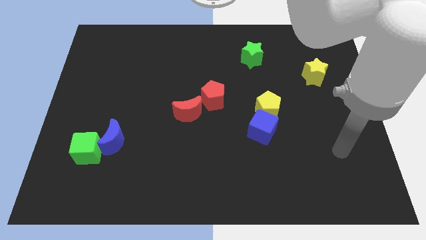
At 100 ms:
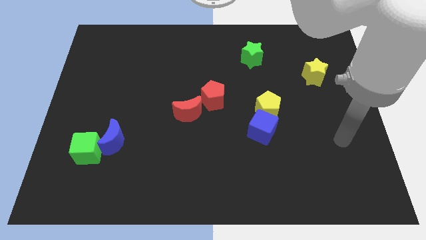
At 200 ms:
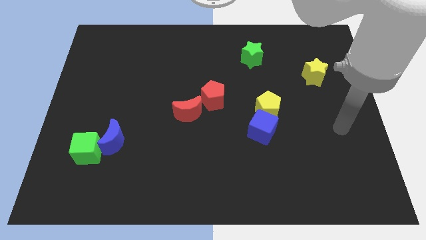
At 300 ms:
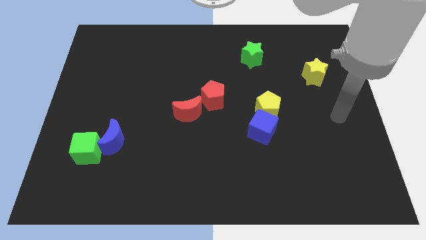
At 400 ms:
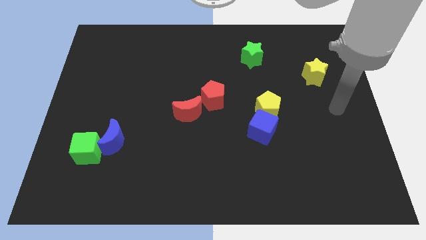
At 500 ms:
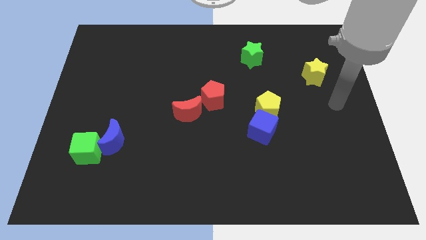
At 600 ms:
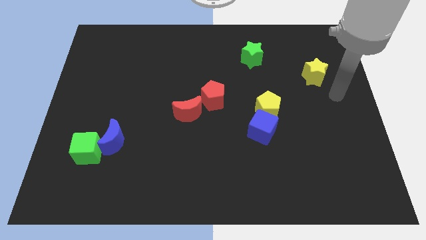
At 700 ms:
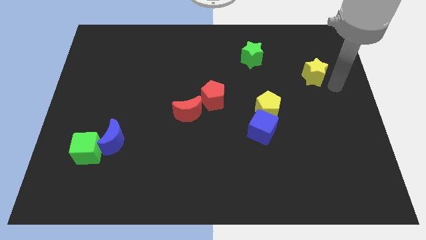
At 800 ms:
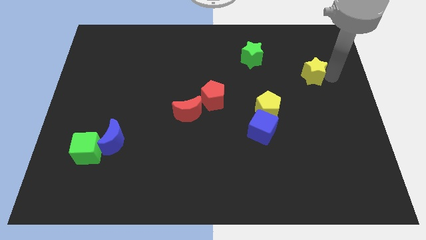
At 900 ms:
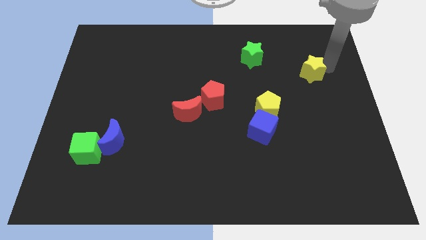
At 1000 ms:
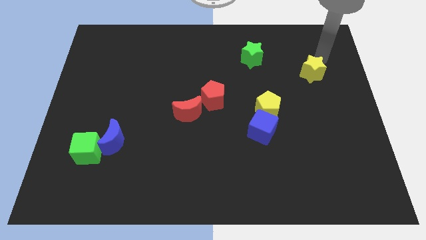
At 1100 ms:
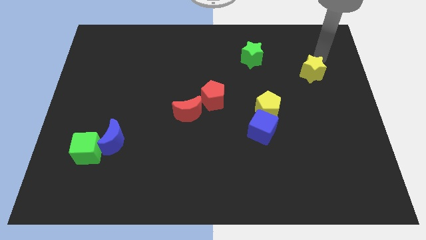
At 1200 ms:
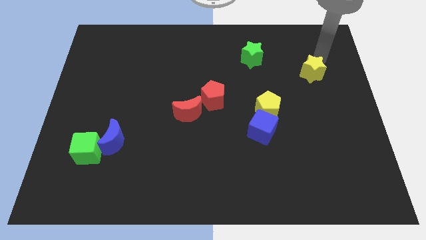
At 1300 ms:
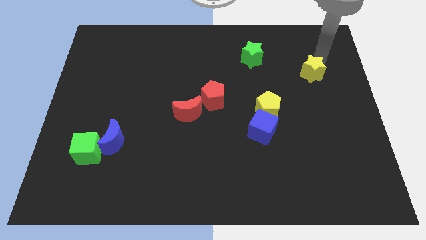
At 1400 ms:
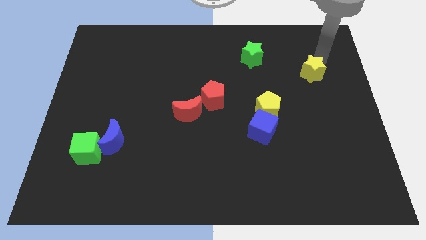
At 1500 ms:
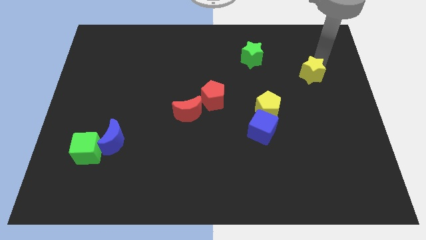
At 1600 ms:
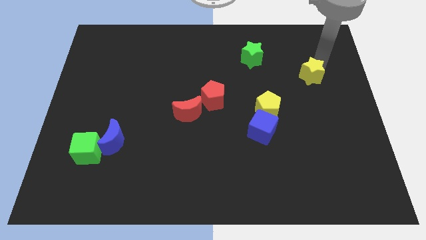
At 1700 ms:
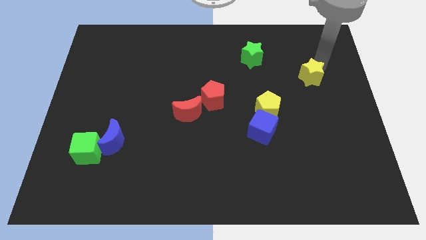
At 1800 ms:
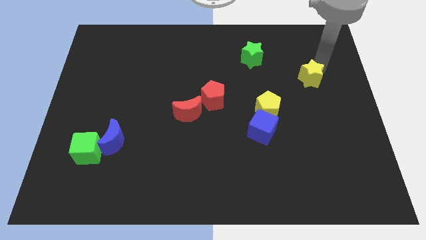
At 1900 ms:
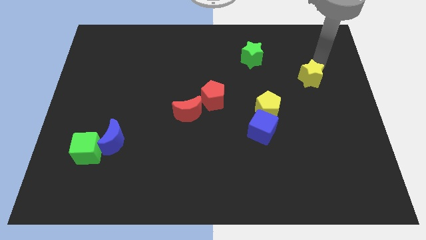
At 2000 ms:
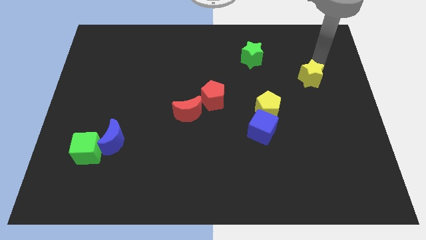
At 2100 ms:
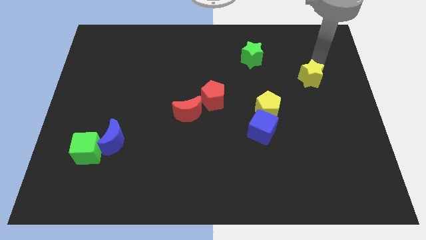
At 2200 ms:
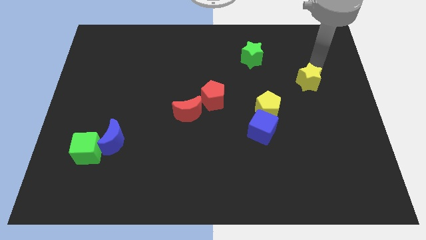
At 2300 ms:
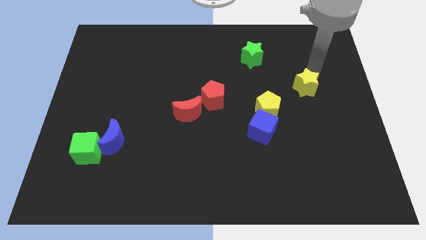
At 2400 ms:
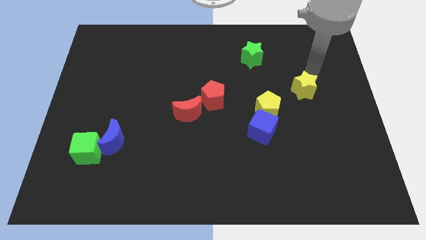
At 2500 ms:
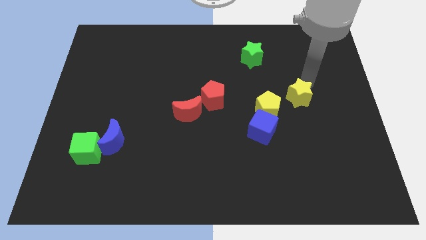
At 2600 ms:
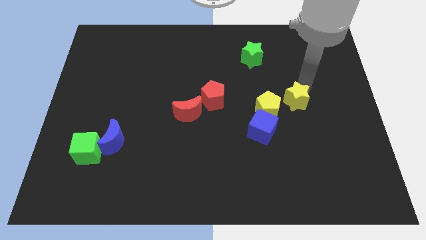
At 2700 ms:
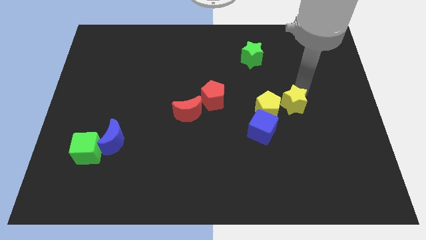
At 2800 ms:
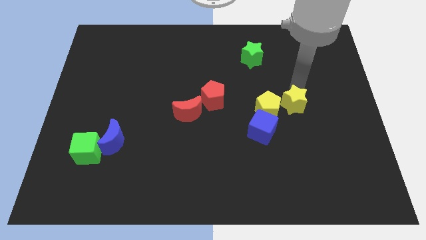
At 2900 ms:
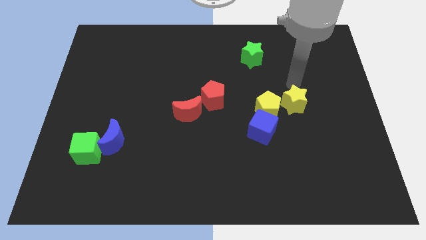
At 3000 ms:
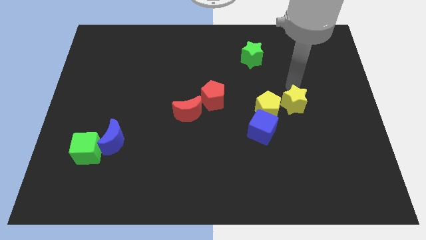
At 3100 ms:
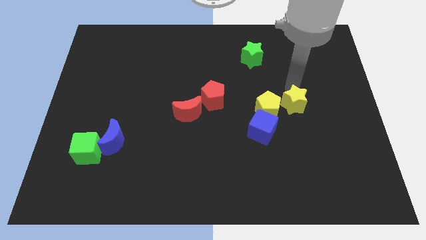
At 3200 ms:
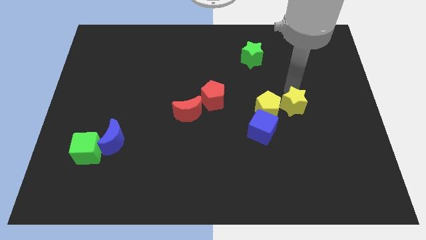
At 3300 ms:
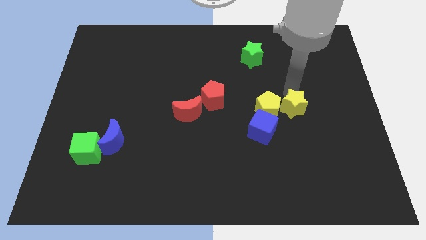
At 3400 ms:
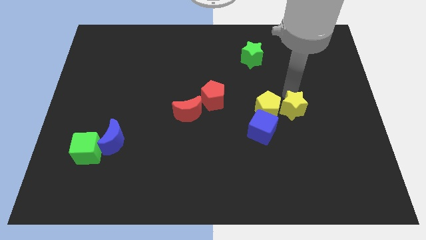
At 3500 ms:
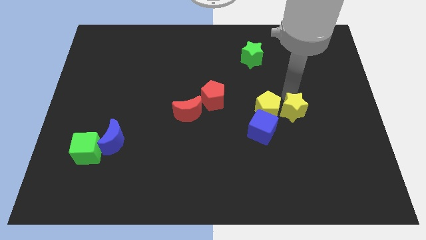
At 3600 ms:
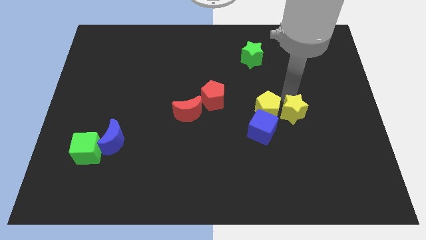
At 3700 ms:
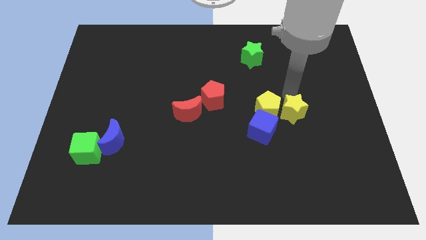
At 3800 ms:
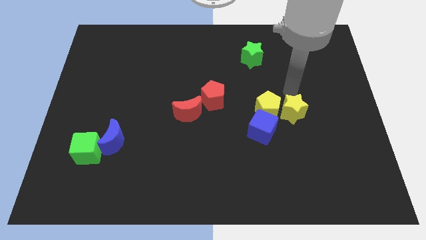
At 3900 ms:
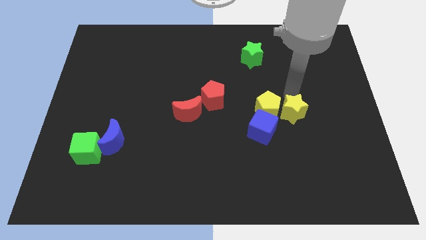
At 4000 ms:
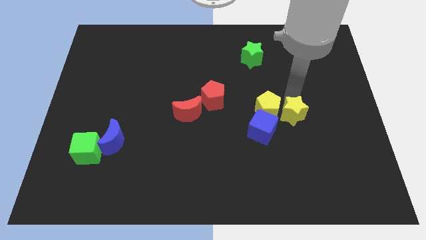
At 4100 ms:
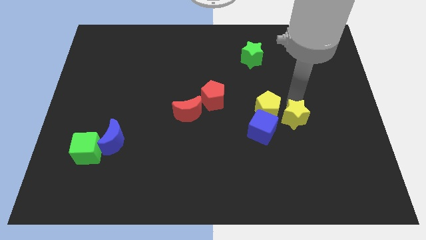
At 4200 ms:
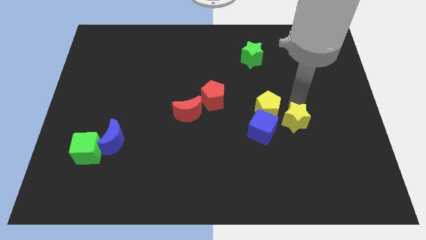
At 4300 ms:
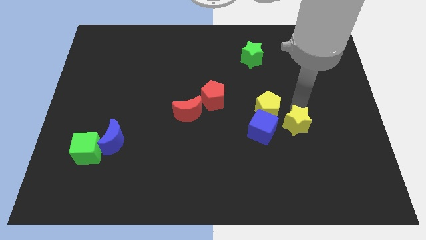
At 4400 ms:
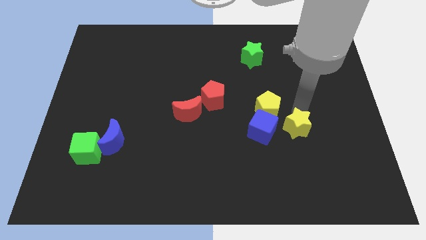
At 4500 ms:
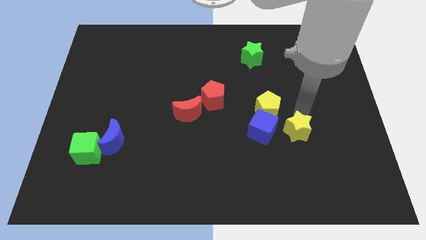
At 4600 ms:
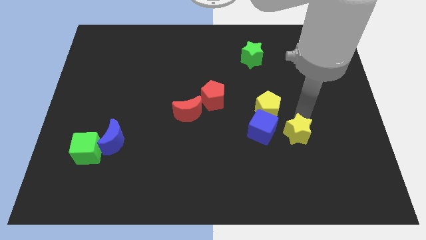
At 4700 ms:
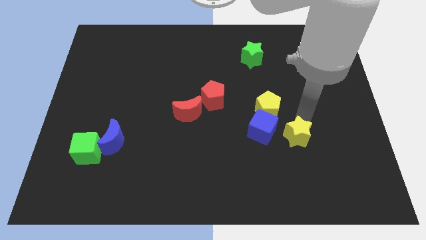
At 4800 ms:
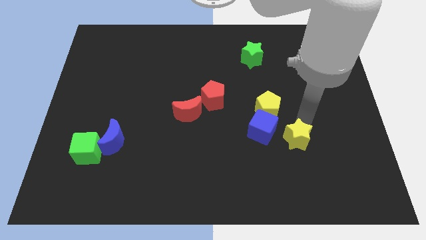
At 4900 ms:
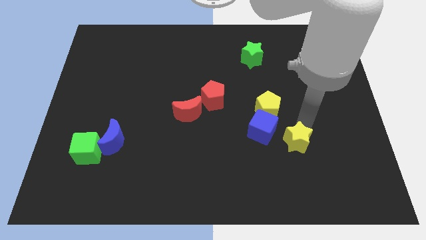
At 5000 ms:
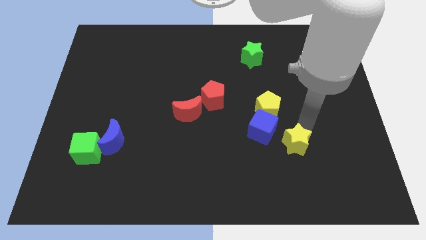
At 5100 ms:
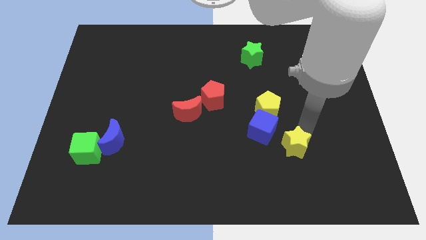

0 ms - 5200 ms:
move the yellow star below the yellow pentagon

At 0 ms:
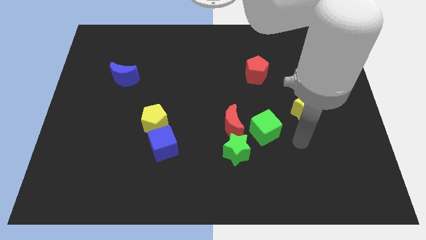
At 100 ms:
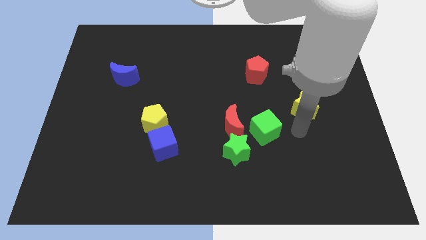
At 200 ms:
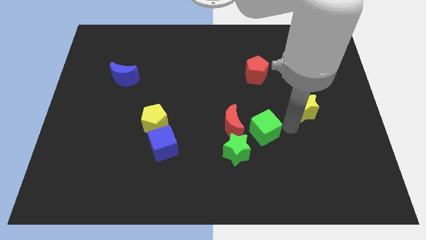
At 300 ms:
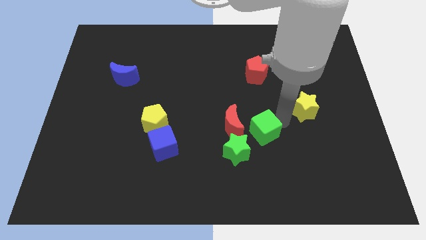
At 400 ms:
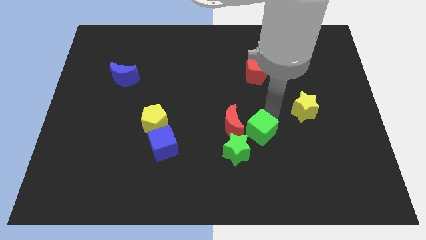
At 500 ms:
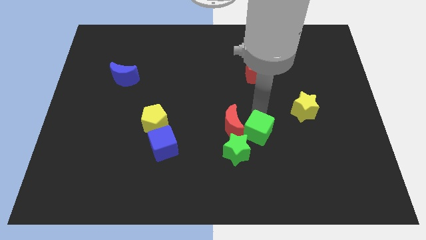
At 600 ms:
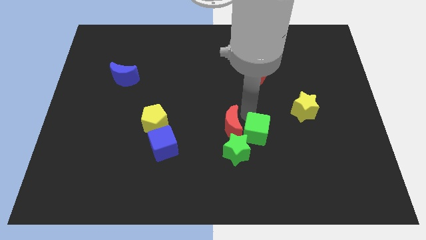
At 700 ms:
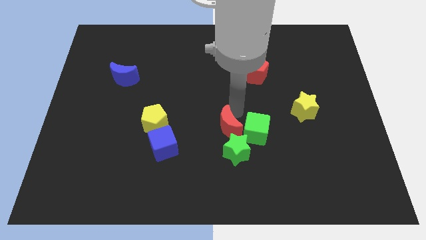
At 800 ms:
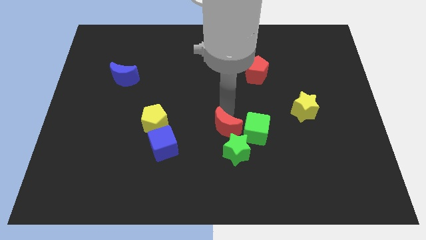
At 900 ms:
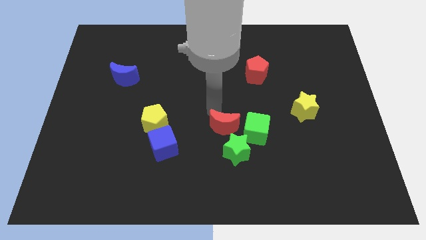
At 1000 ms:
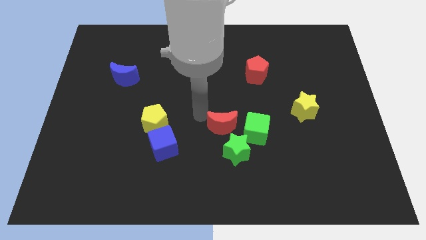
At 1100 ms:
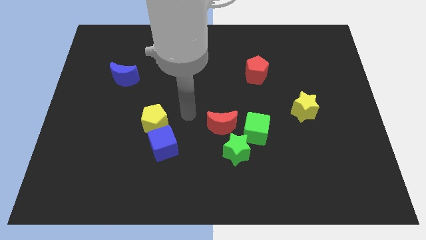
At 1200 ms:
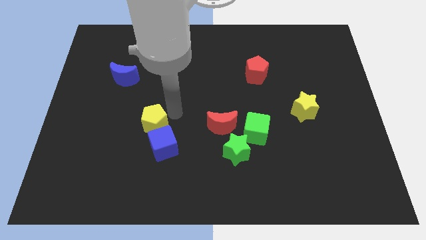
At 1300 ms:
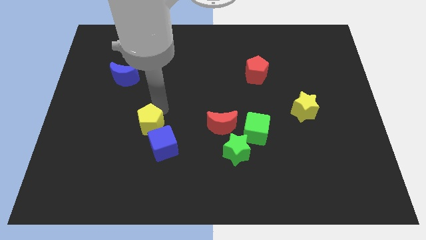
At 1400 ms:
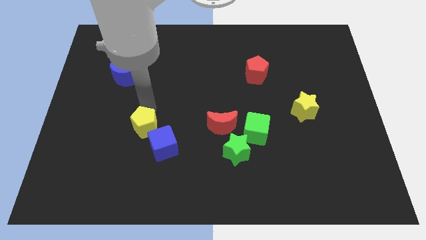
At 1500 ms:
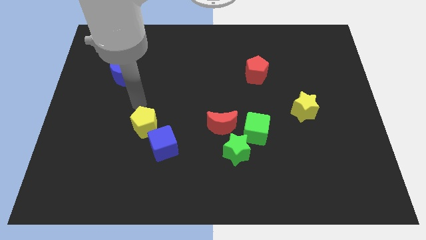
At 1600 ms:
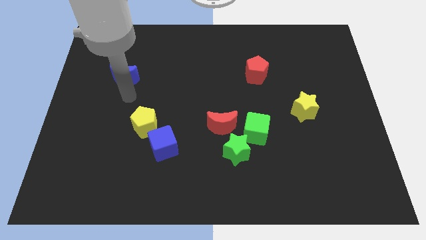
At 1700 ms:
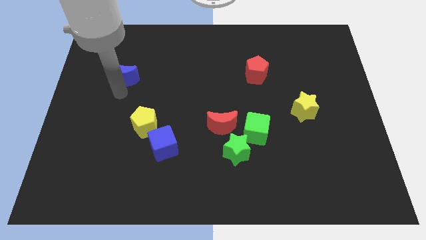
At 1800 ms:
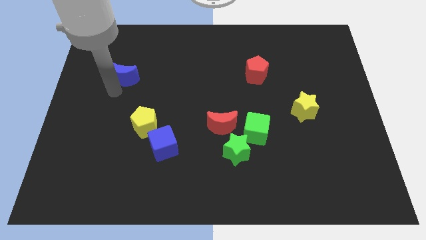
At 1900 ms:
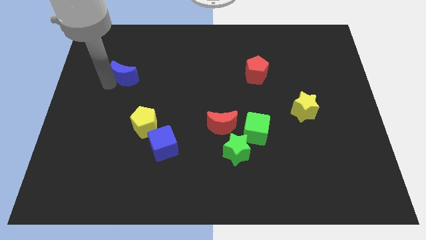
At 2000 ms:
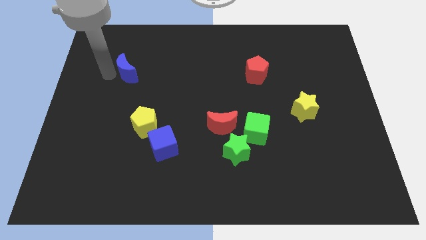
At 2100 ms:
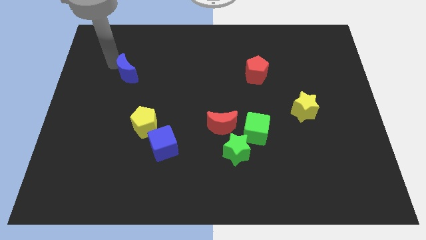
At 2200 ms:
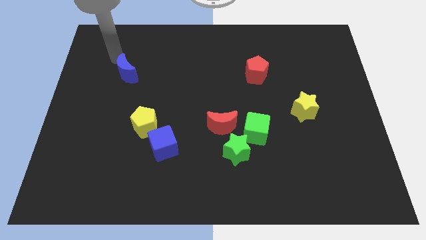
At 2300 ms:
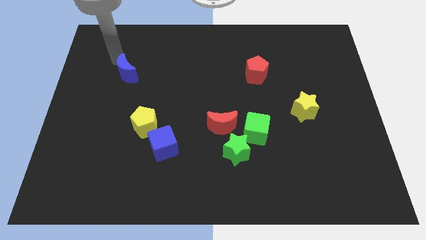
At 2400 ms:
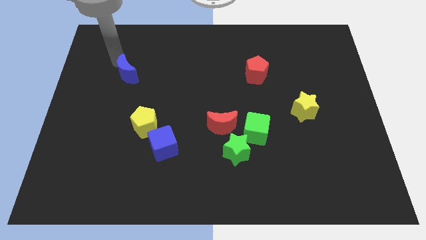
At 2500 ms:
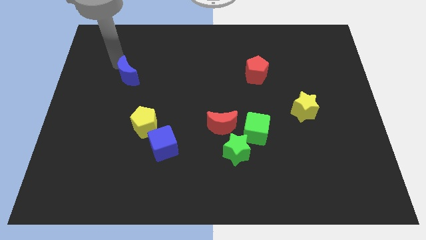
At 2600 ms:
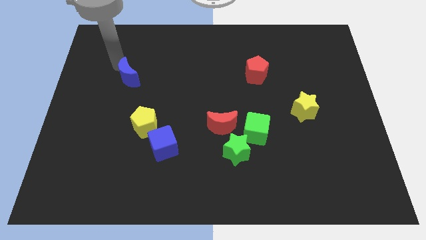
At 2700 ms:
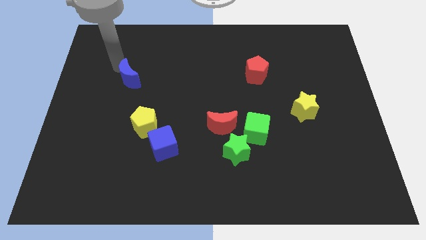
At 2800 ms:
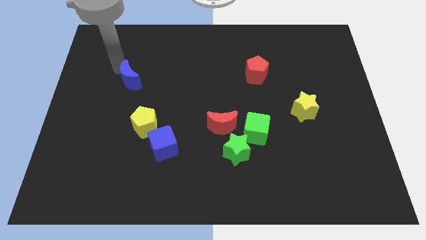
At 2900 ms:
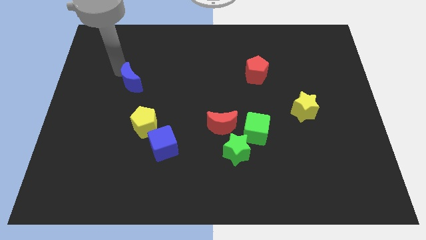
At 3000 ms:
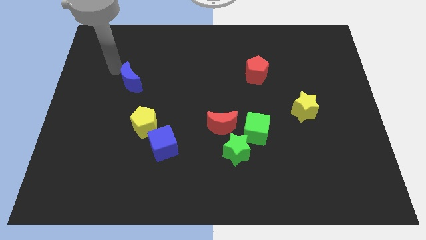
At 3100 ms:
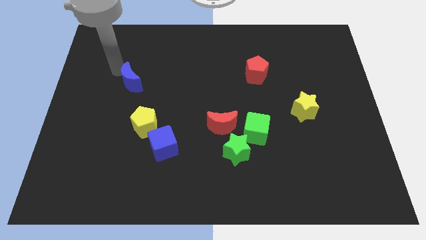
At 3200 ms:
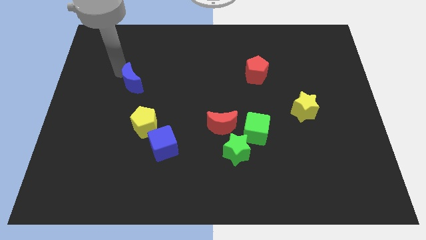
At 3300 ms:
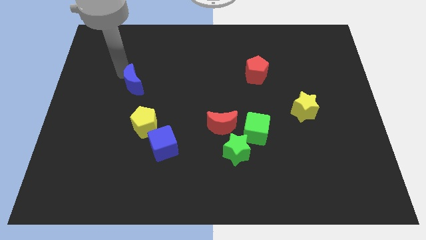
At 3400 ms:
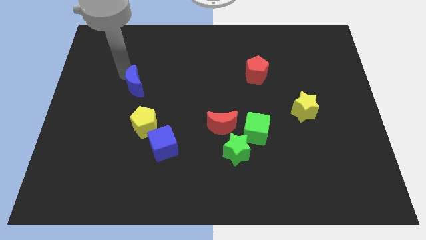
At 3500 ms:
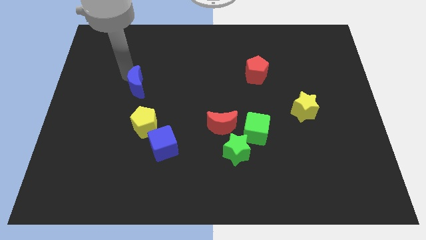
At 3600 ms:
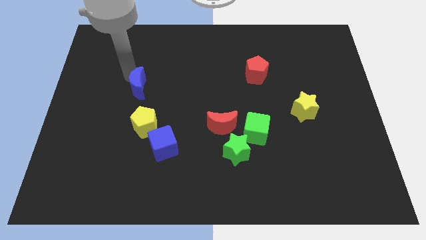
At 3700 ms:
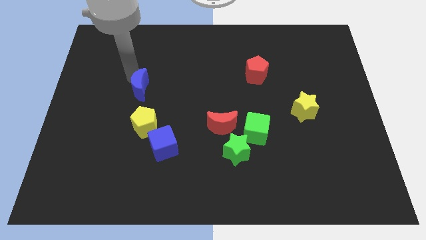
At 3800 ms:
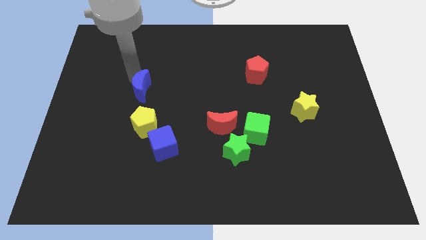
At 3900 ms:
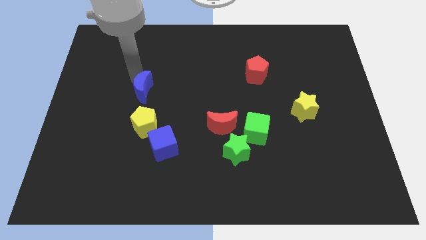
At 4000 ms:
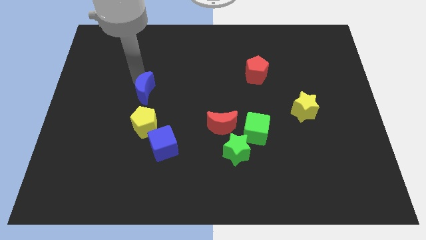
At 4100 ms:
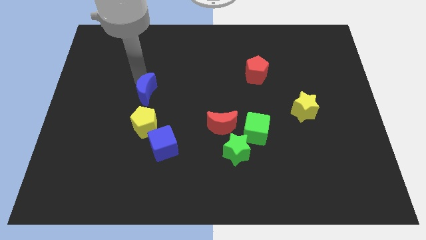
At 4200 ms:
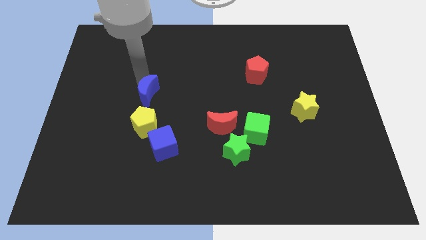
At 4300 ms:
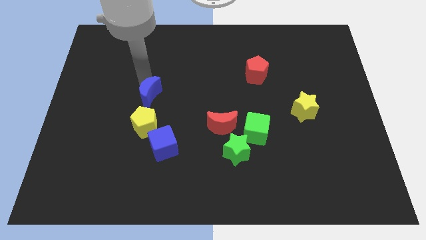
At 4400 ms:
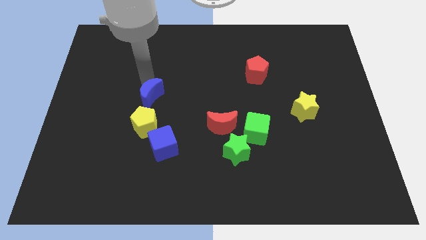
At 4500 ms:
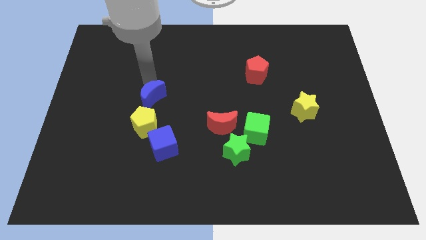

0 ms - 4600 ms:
move the blue moon to the top of the blue cube
